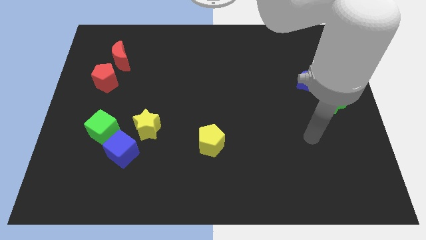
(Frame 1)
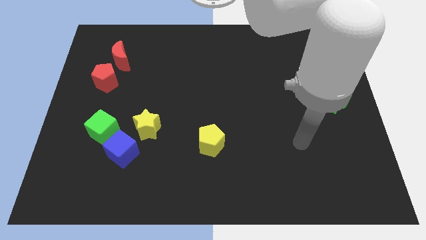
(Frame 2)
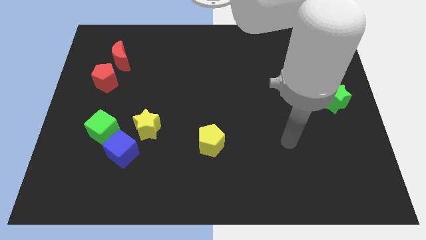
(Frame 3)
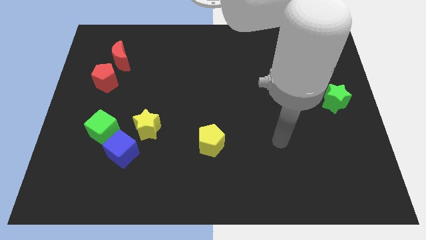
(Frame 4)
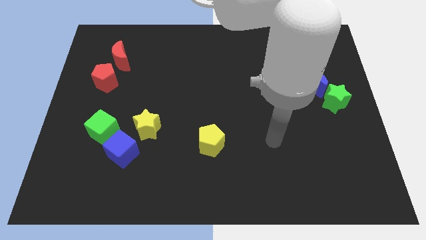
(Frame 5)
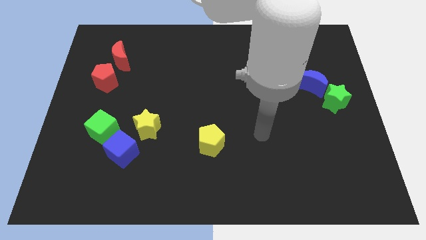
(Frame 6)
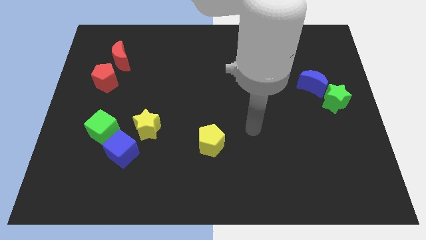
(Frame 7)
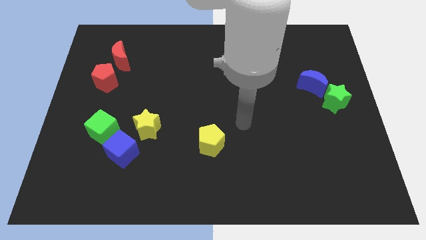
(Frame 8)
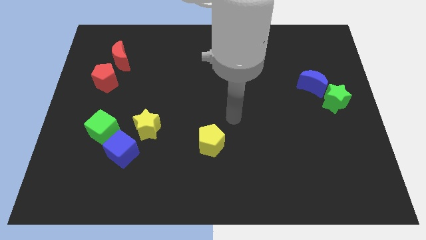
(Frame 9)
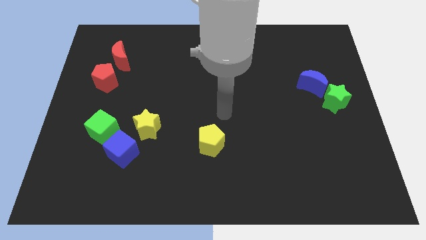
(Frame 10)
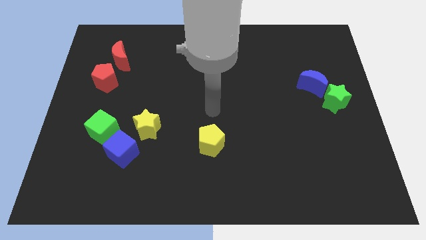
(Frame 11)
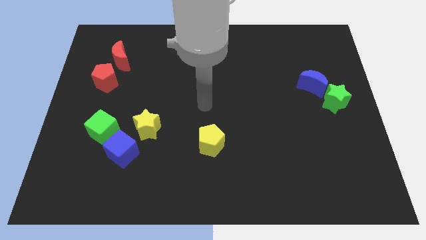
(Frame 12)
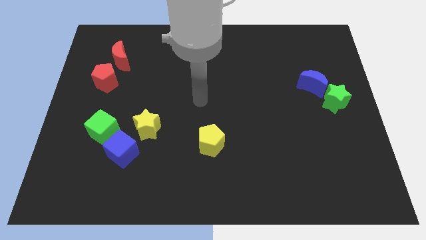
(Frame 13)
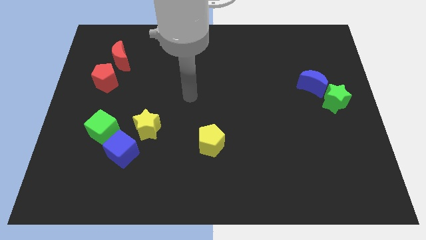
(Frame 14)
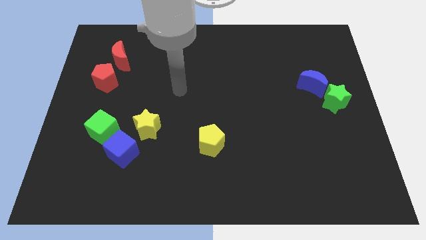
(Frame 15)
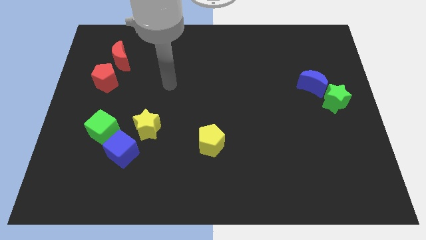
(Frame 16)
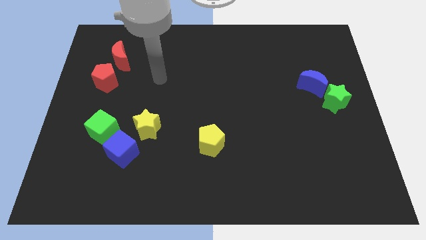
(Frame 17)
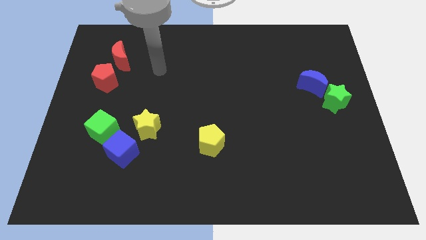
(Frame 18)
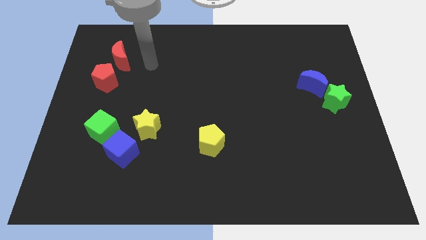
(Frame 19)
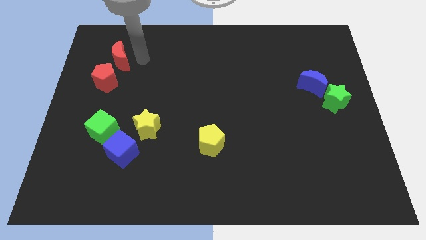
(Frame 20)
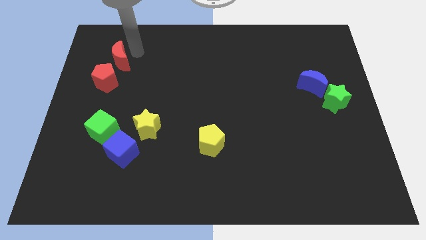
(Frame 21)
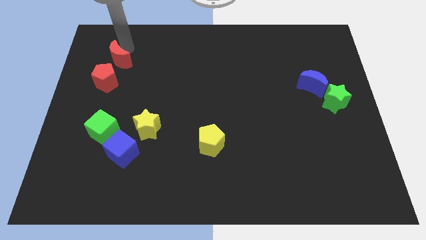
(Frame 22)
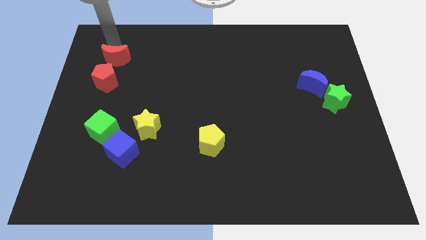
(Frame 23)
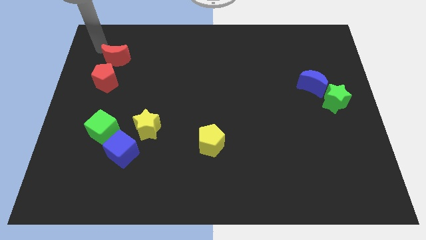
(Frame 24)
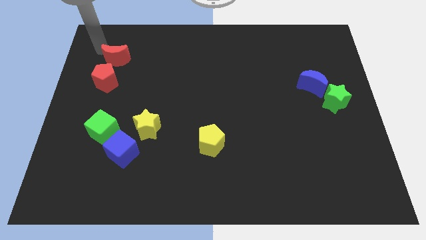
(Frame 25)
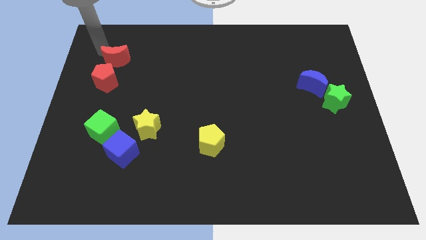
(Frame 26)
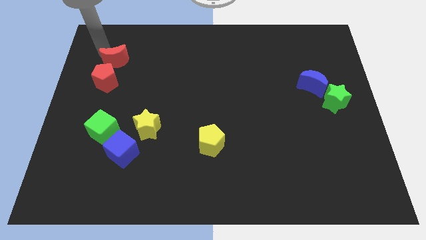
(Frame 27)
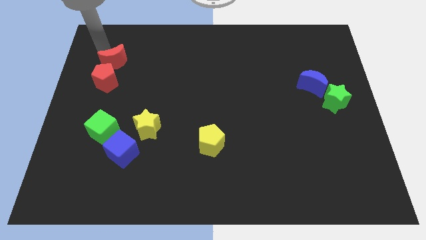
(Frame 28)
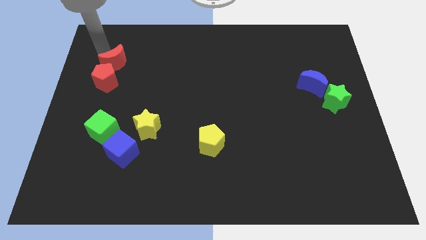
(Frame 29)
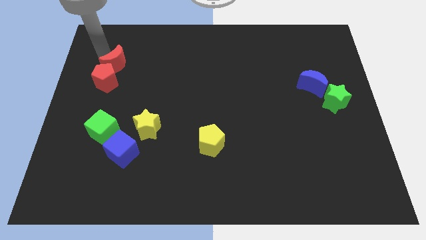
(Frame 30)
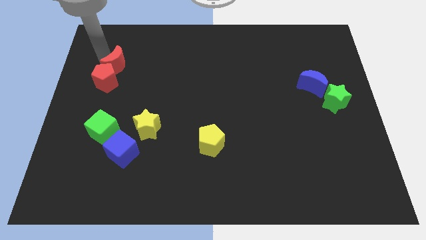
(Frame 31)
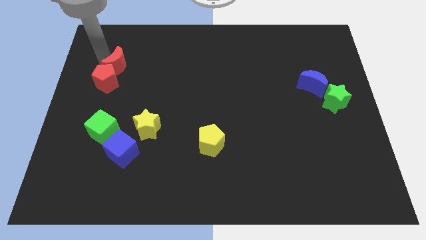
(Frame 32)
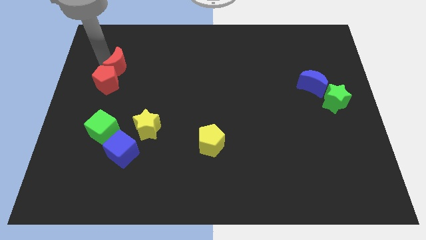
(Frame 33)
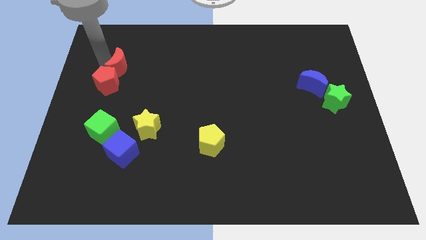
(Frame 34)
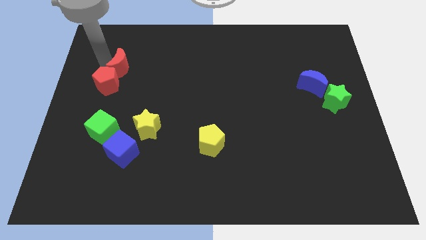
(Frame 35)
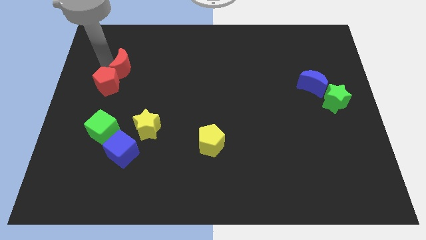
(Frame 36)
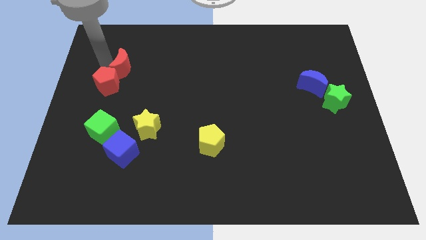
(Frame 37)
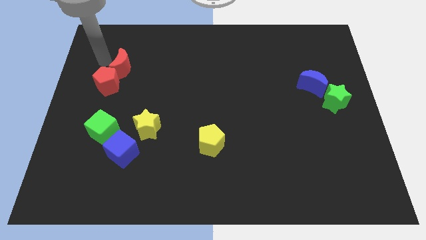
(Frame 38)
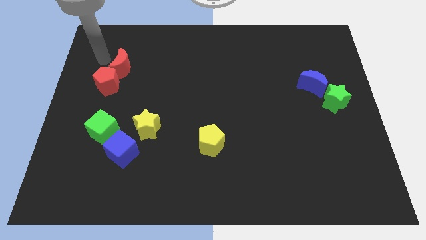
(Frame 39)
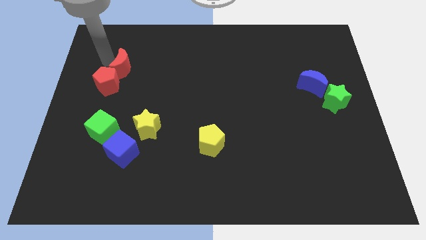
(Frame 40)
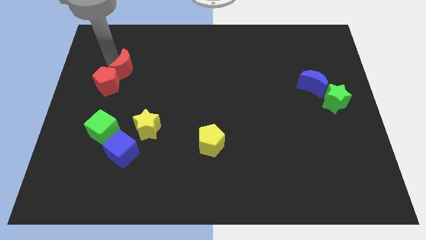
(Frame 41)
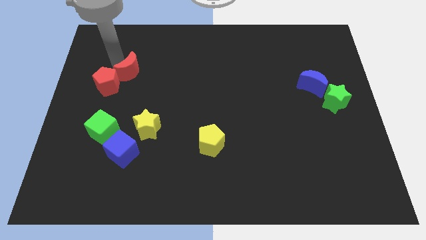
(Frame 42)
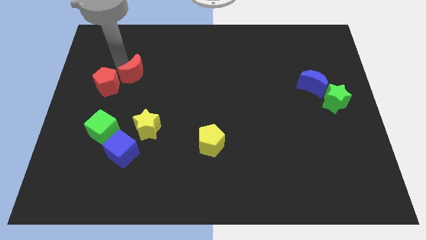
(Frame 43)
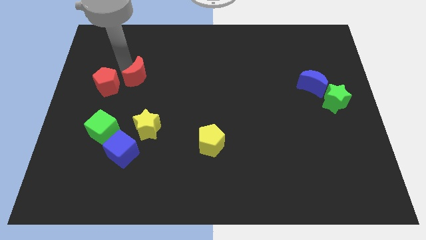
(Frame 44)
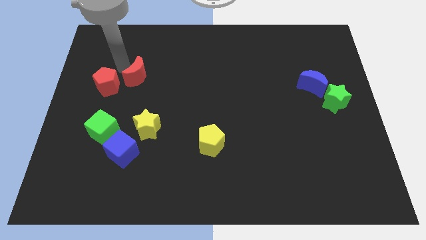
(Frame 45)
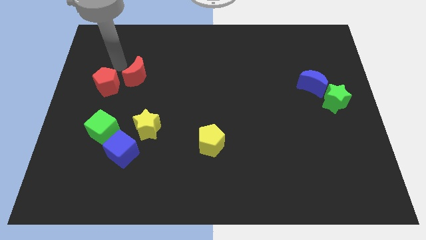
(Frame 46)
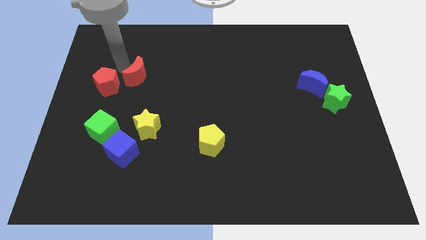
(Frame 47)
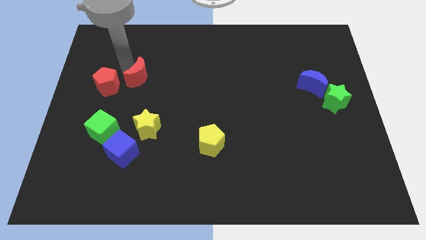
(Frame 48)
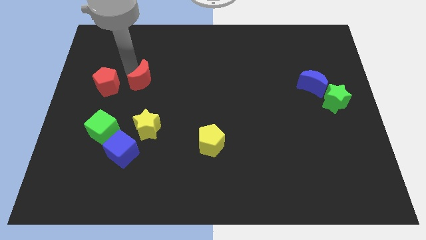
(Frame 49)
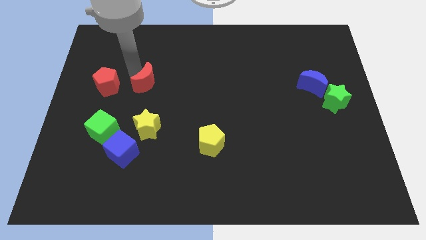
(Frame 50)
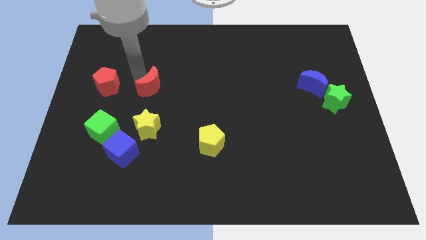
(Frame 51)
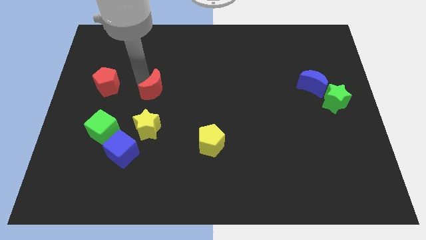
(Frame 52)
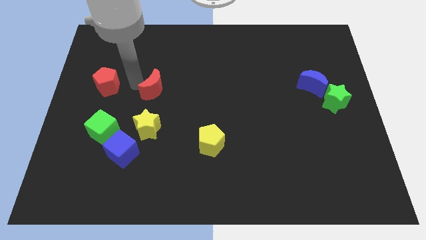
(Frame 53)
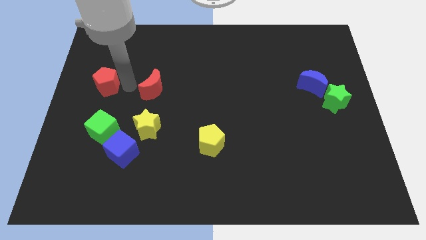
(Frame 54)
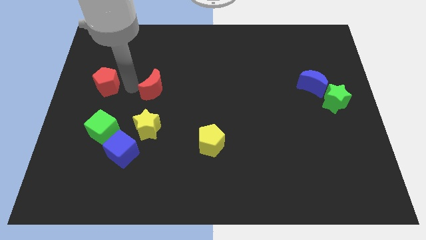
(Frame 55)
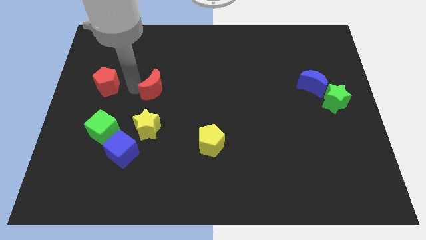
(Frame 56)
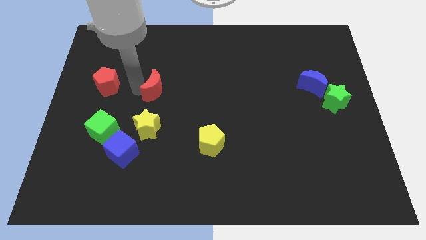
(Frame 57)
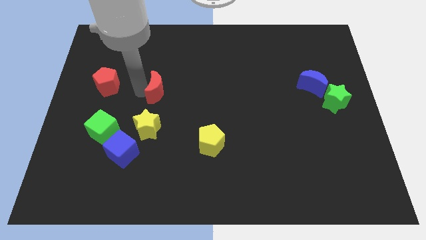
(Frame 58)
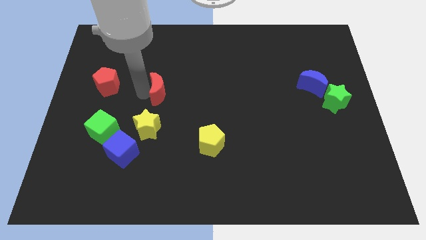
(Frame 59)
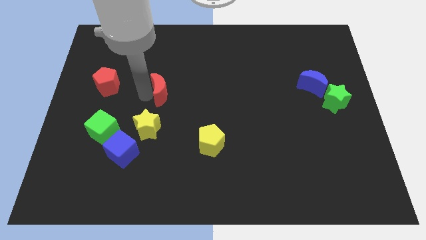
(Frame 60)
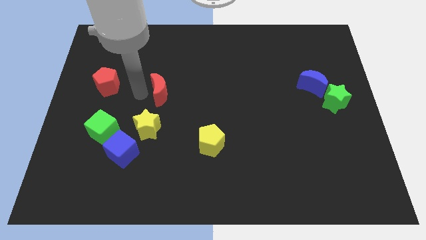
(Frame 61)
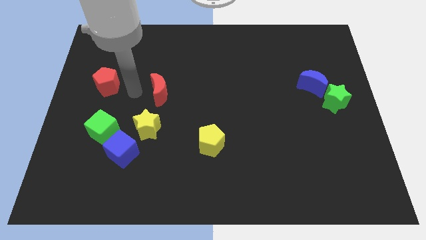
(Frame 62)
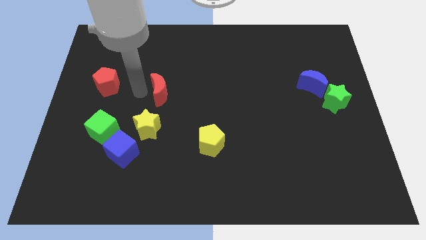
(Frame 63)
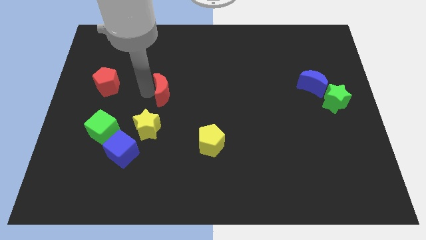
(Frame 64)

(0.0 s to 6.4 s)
push the red moon to the middle

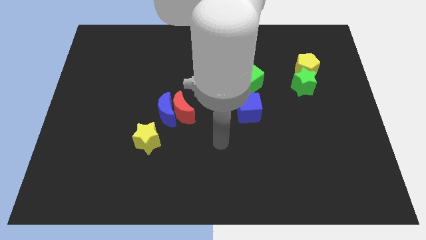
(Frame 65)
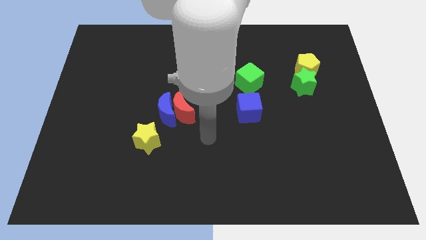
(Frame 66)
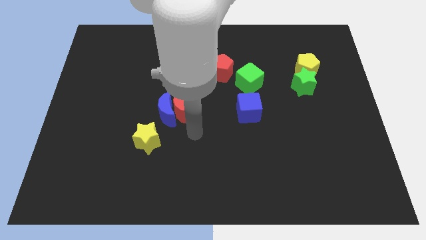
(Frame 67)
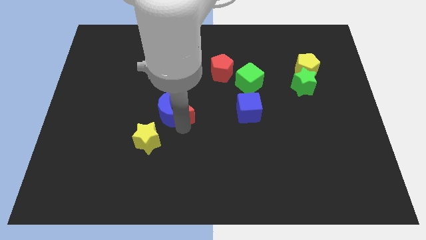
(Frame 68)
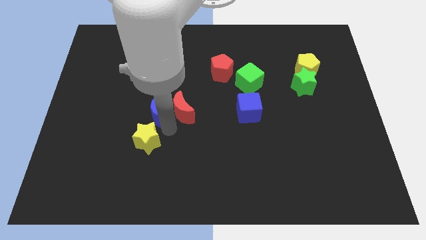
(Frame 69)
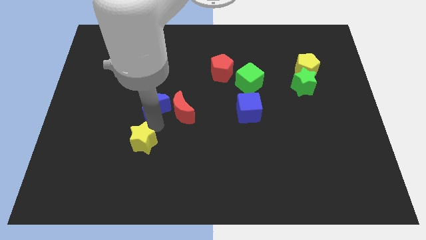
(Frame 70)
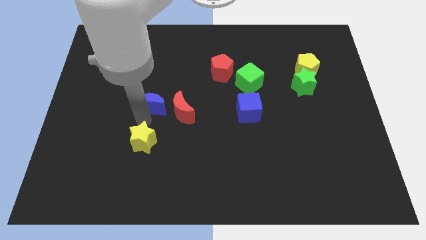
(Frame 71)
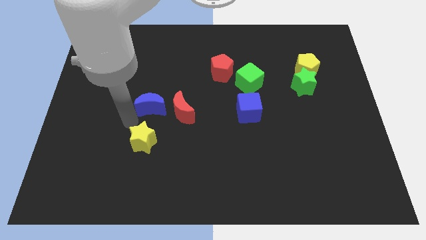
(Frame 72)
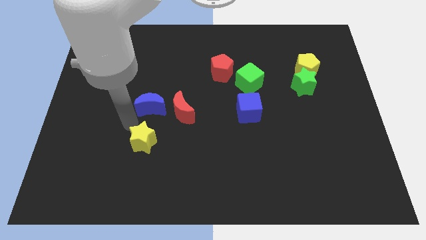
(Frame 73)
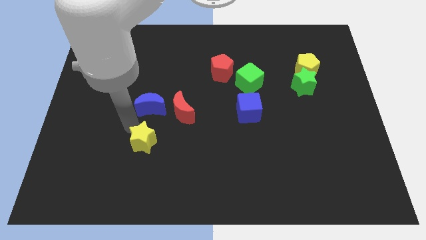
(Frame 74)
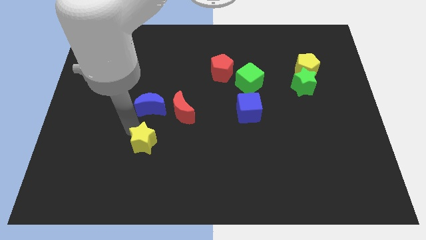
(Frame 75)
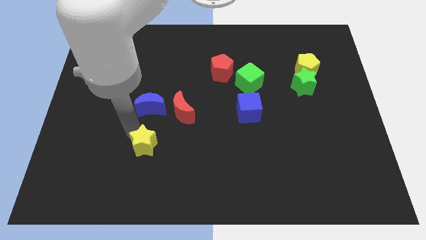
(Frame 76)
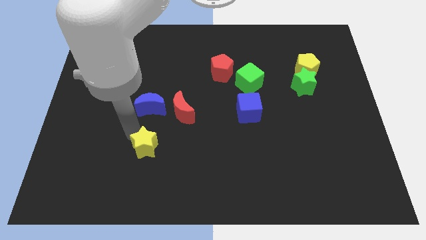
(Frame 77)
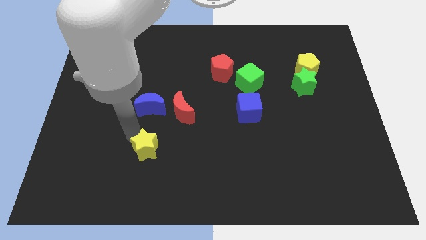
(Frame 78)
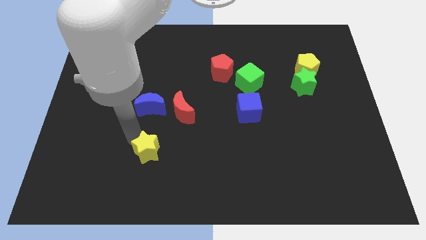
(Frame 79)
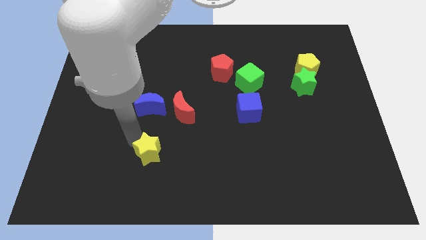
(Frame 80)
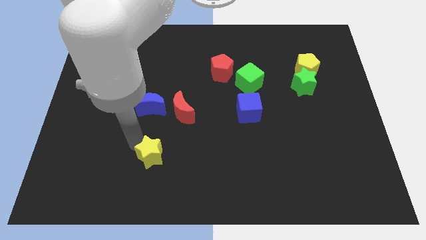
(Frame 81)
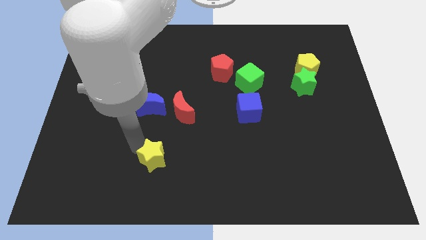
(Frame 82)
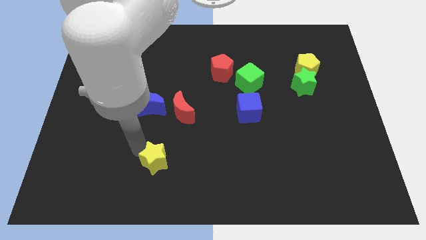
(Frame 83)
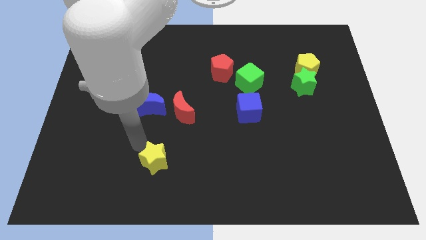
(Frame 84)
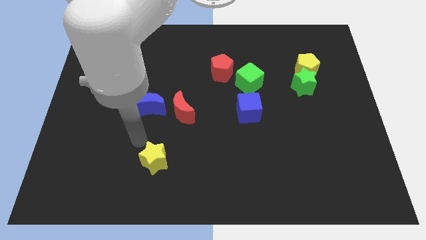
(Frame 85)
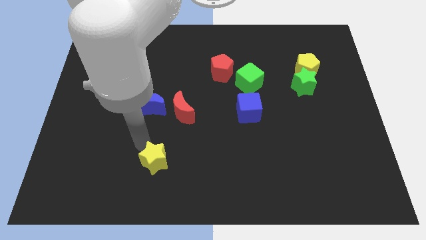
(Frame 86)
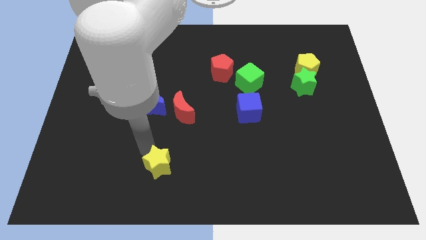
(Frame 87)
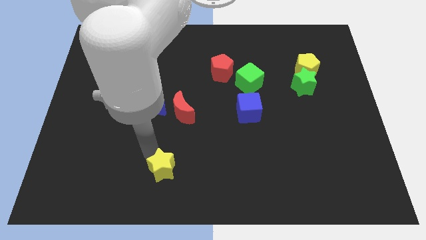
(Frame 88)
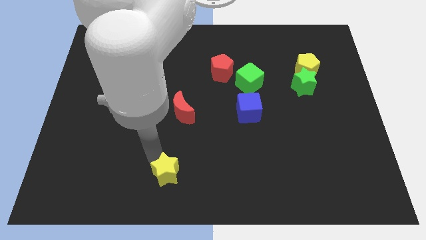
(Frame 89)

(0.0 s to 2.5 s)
slide the yellow star to the bottom
